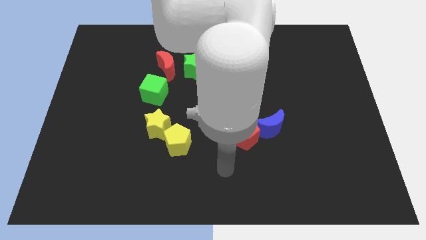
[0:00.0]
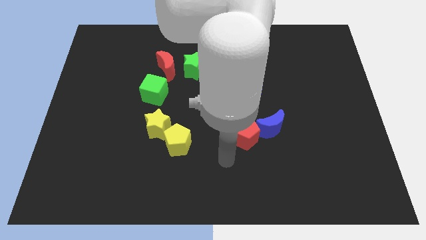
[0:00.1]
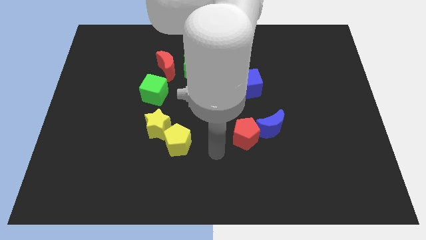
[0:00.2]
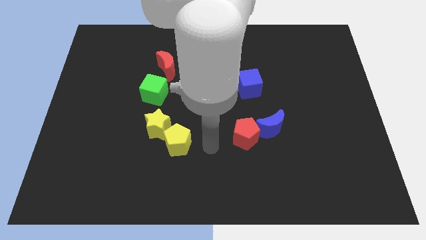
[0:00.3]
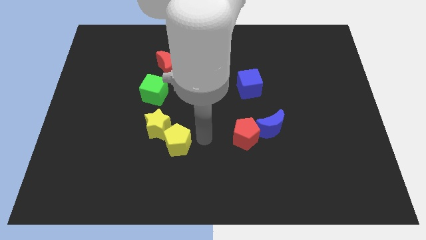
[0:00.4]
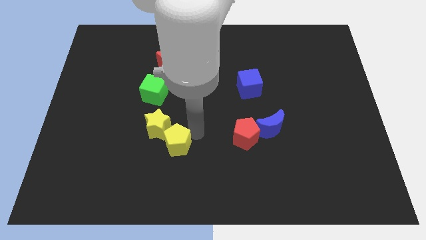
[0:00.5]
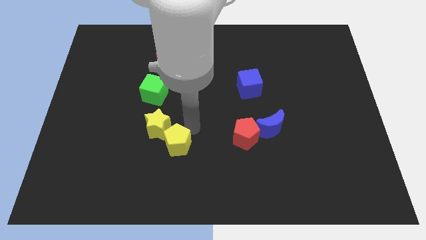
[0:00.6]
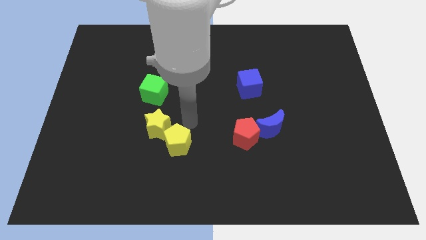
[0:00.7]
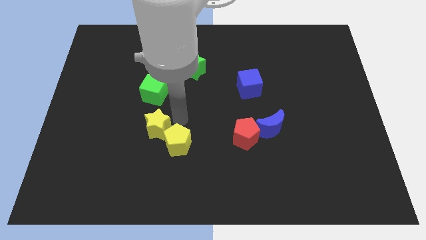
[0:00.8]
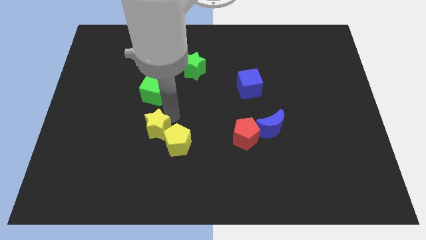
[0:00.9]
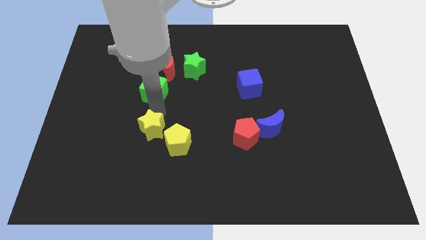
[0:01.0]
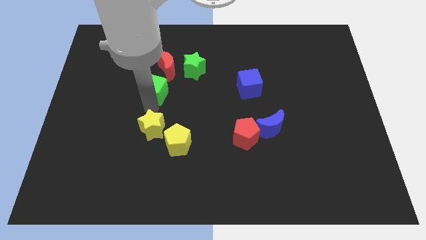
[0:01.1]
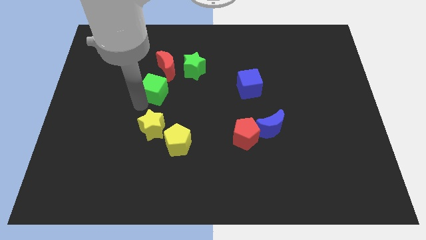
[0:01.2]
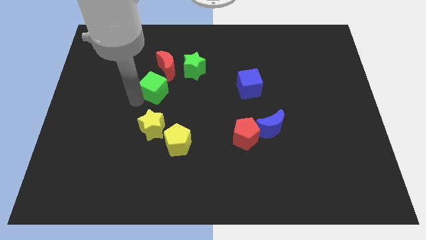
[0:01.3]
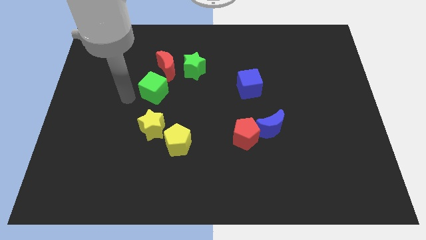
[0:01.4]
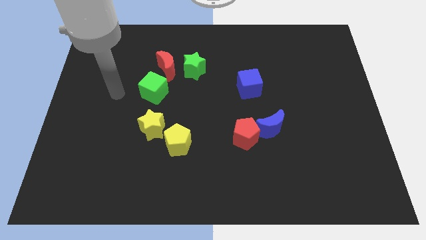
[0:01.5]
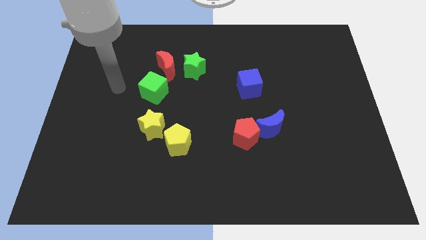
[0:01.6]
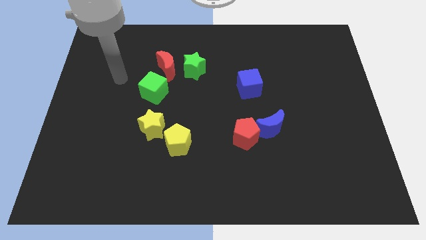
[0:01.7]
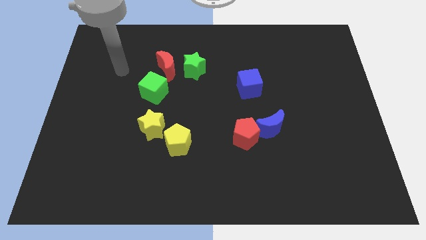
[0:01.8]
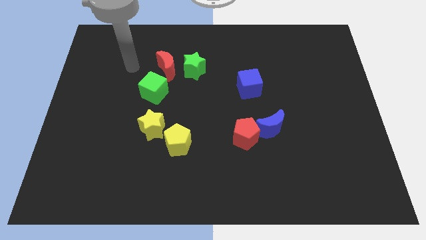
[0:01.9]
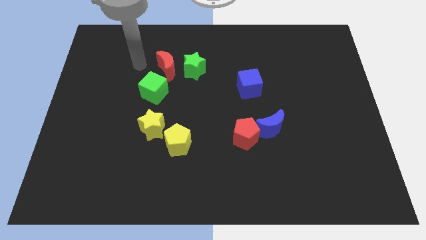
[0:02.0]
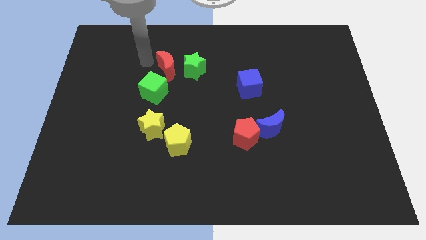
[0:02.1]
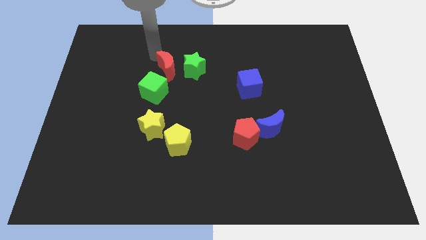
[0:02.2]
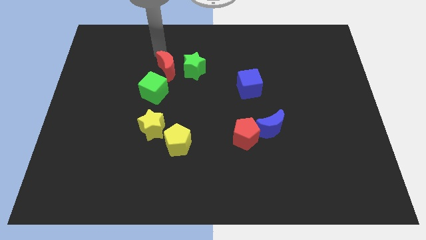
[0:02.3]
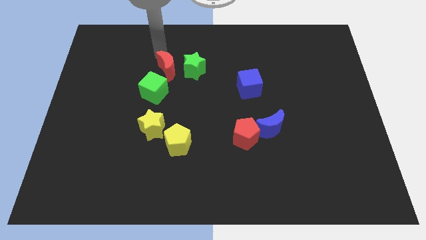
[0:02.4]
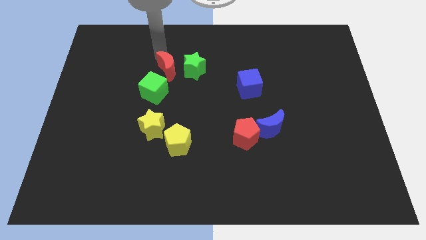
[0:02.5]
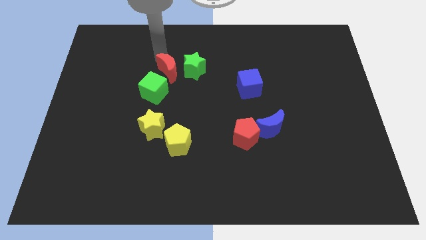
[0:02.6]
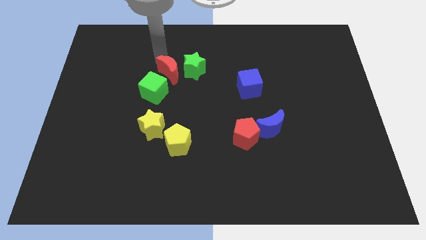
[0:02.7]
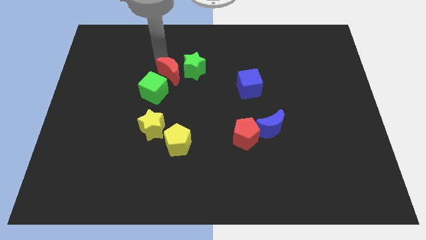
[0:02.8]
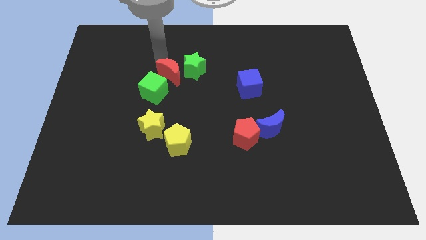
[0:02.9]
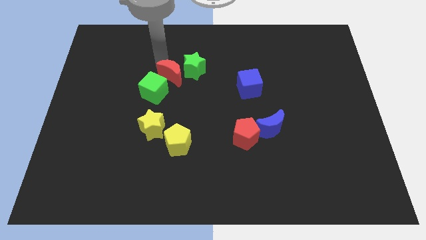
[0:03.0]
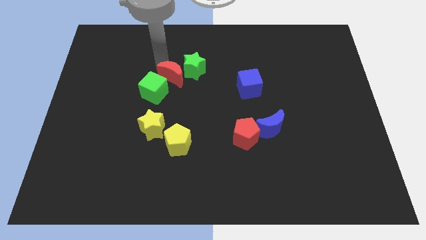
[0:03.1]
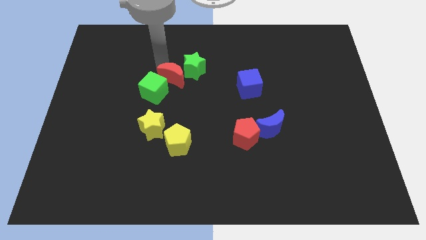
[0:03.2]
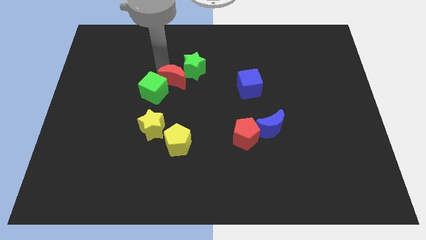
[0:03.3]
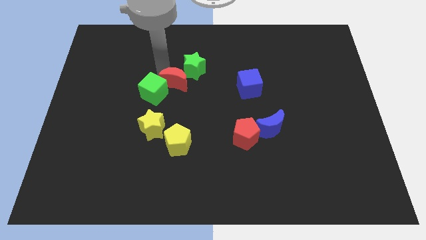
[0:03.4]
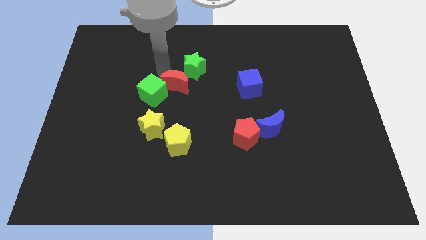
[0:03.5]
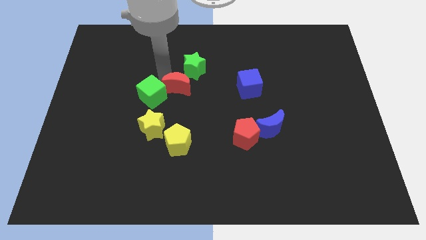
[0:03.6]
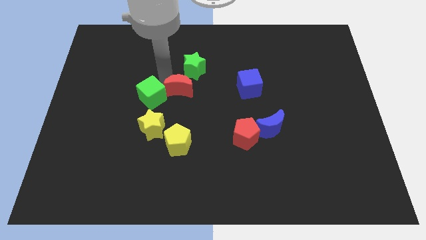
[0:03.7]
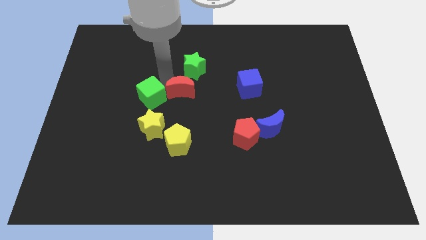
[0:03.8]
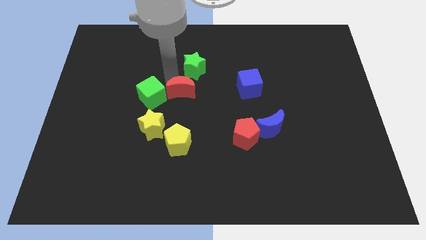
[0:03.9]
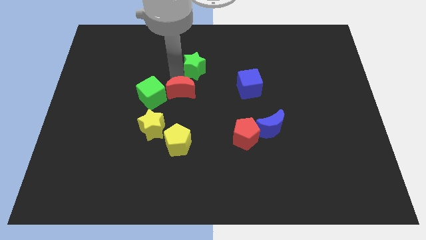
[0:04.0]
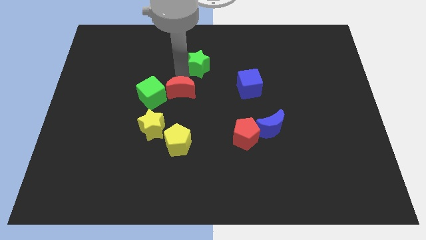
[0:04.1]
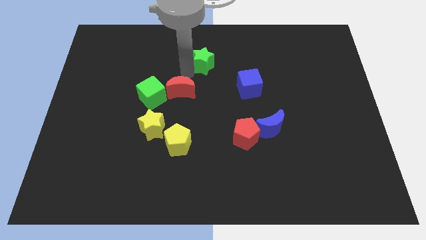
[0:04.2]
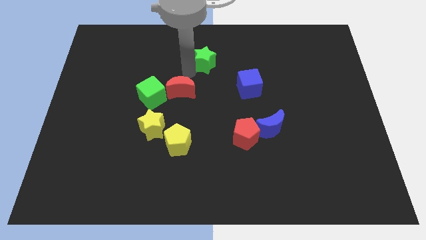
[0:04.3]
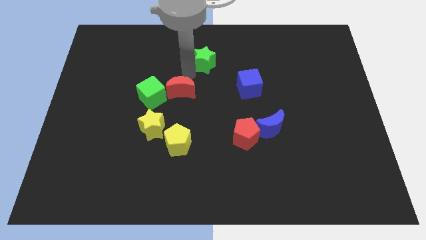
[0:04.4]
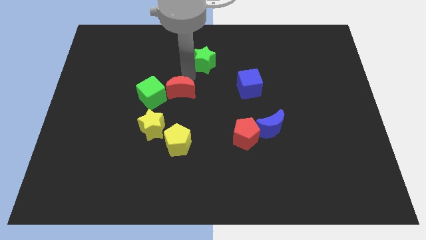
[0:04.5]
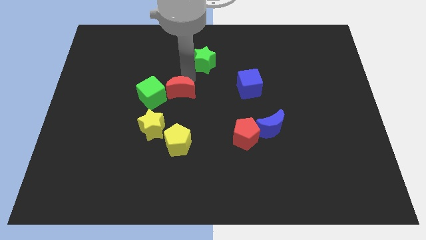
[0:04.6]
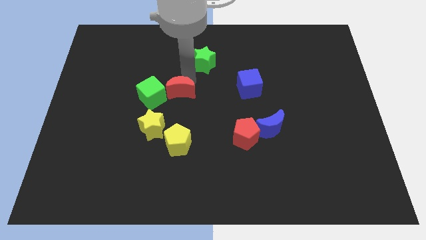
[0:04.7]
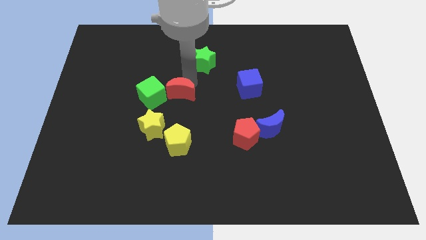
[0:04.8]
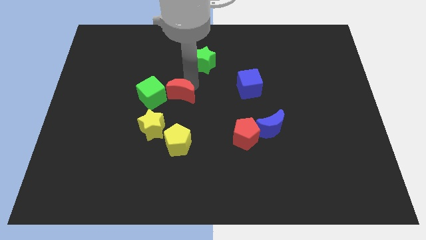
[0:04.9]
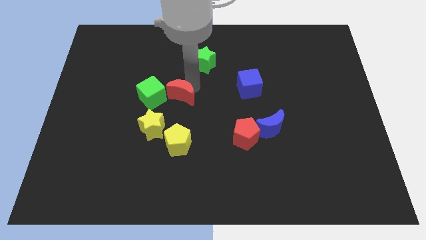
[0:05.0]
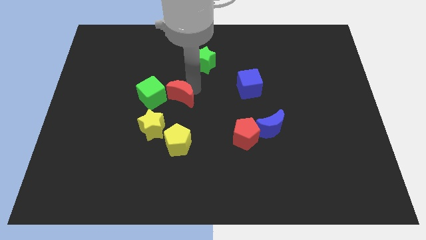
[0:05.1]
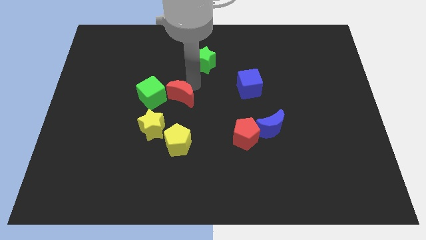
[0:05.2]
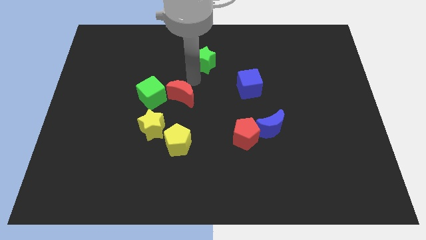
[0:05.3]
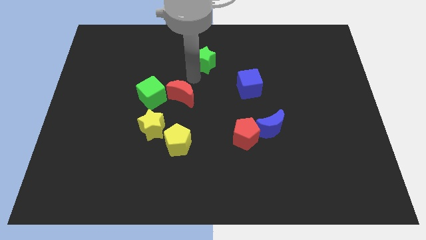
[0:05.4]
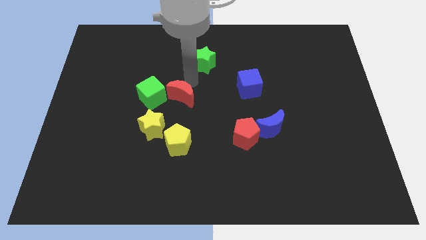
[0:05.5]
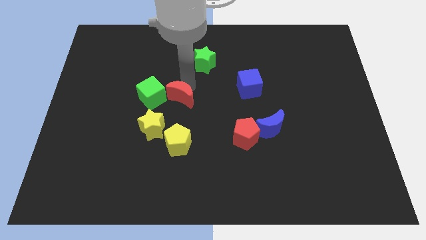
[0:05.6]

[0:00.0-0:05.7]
move the red moon to the bottom right side of the green cube

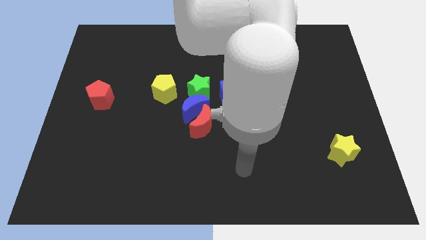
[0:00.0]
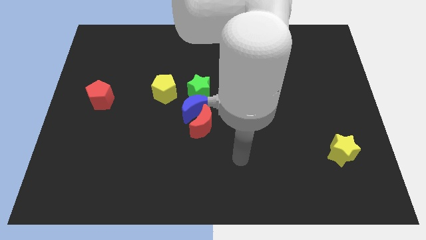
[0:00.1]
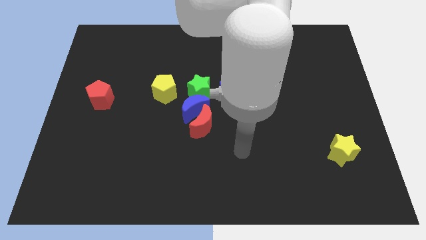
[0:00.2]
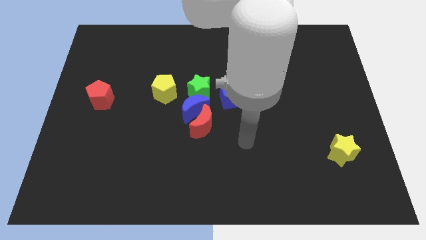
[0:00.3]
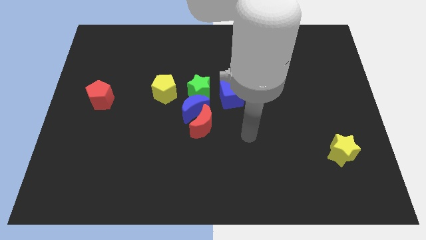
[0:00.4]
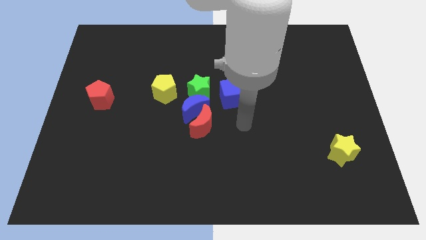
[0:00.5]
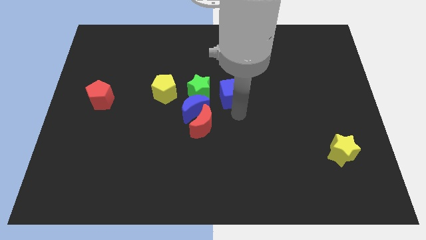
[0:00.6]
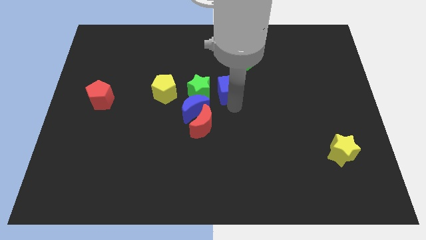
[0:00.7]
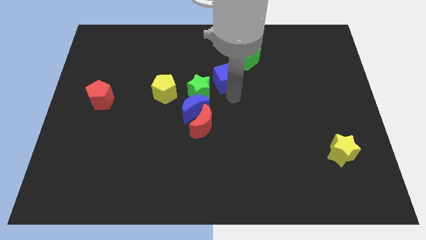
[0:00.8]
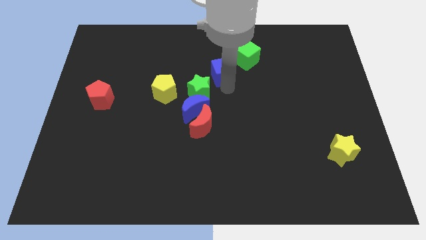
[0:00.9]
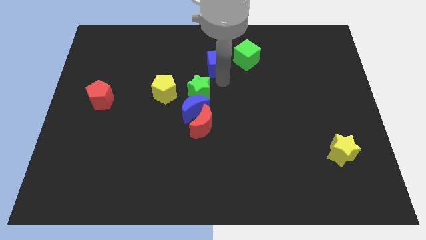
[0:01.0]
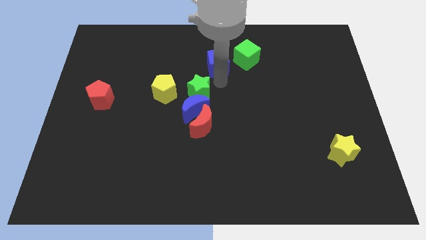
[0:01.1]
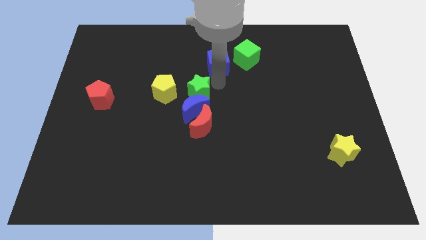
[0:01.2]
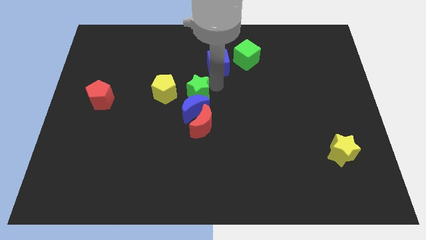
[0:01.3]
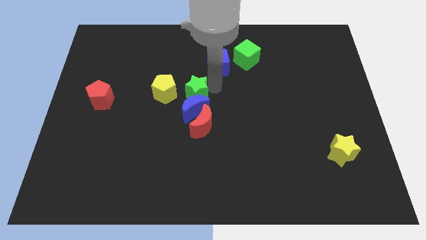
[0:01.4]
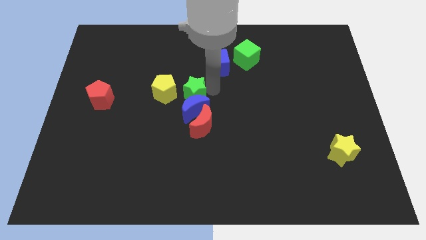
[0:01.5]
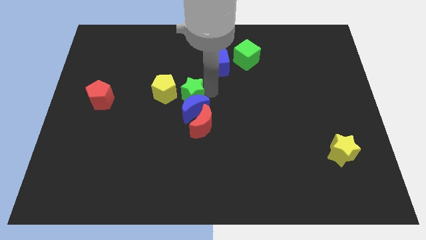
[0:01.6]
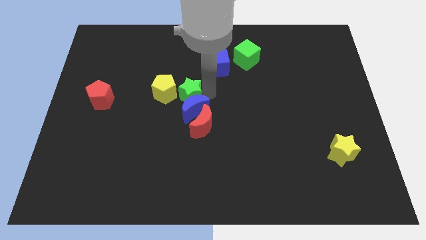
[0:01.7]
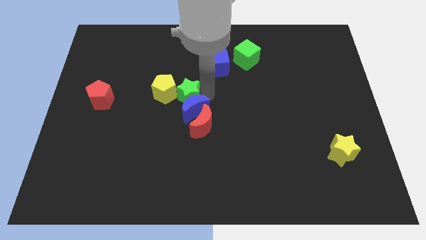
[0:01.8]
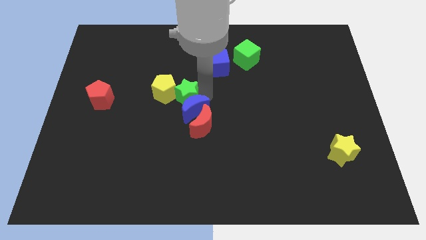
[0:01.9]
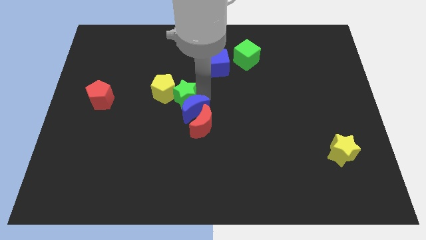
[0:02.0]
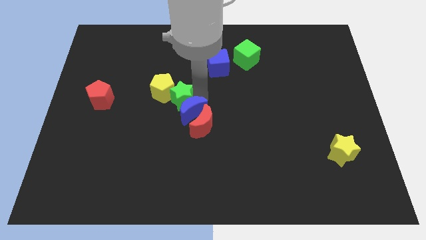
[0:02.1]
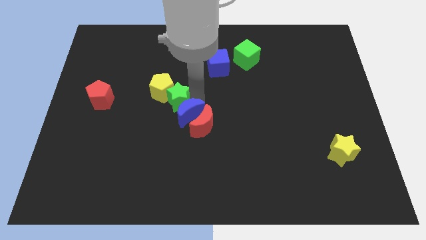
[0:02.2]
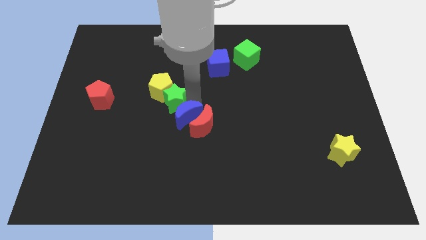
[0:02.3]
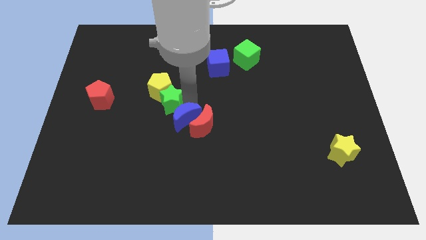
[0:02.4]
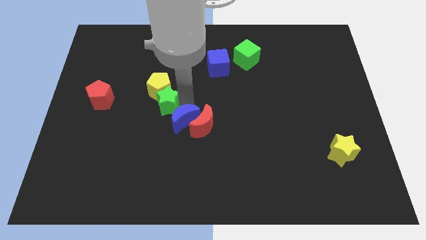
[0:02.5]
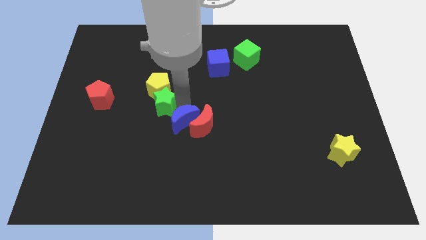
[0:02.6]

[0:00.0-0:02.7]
slide the green star to the bottom left side of the yellow pentagon
